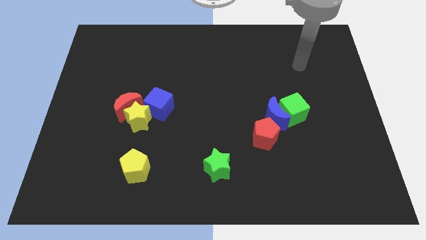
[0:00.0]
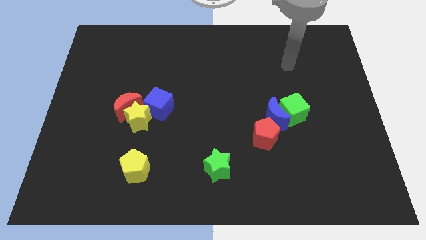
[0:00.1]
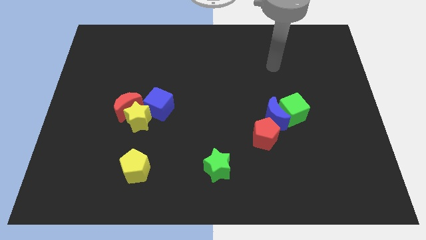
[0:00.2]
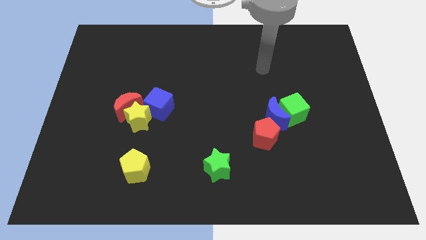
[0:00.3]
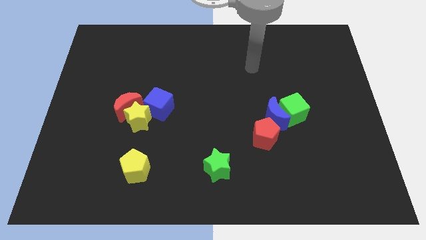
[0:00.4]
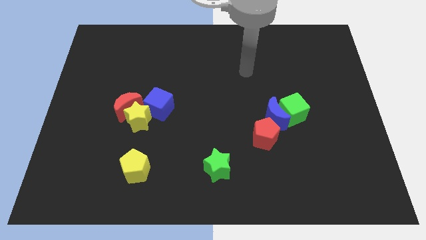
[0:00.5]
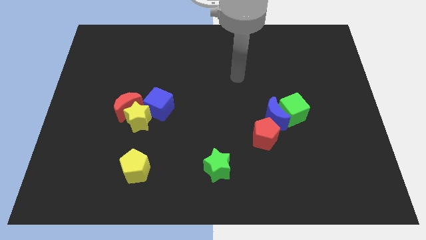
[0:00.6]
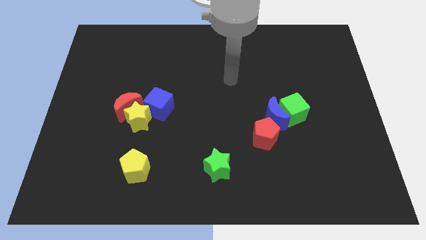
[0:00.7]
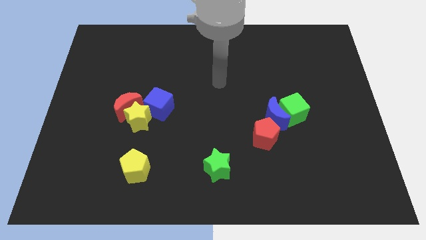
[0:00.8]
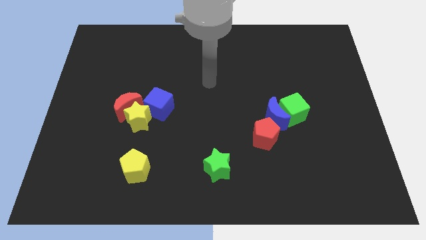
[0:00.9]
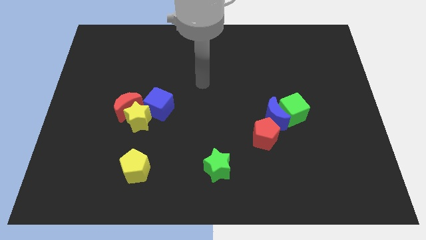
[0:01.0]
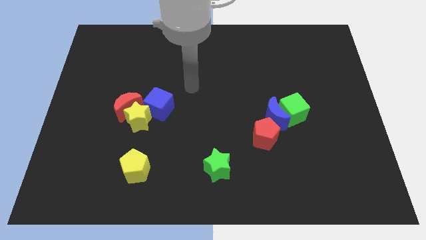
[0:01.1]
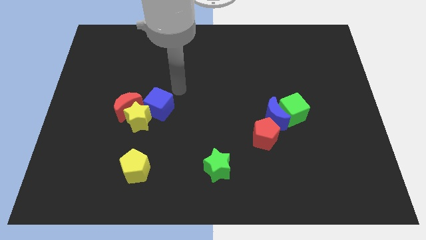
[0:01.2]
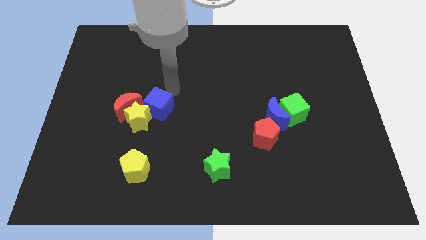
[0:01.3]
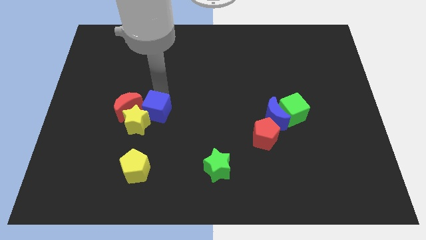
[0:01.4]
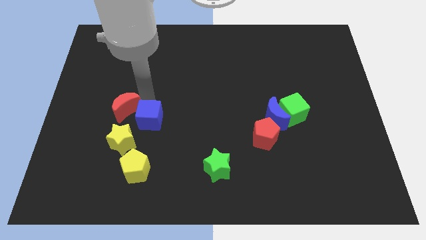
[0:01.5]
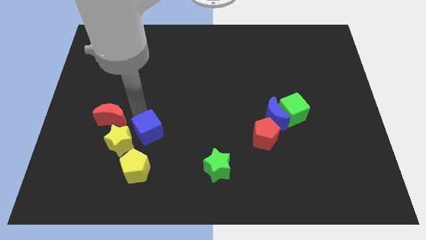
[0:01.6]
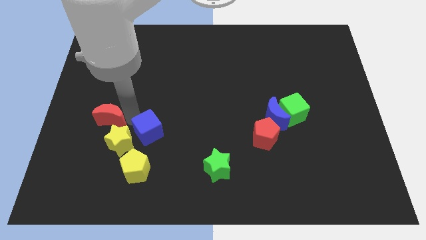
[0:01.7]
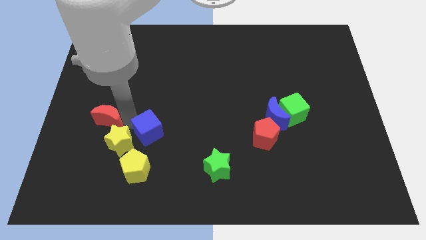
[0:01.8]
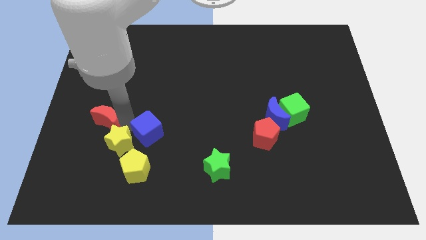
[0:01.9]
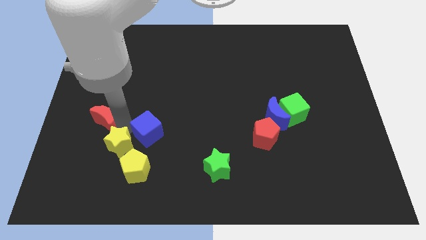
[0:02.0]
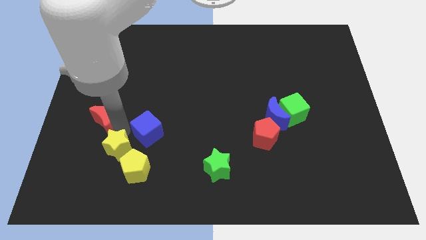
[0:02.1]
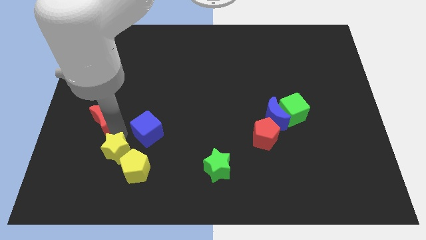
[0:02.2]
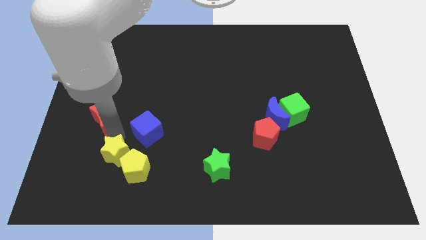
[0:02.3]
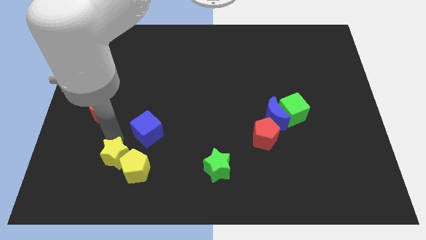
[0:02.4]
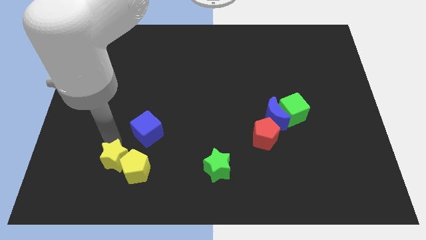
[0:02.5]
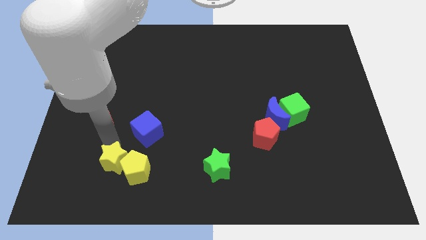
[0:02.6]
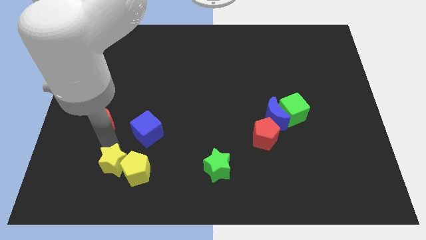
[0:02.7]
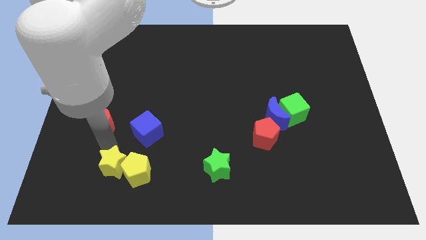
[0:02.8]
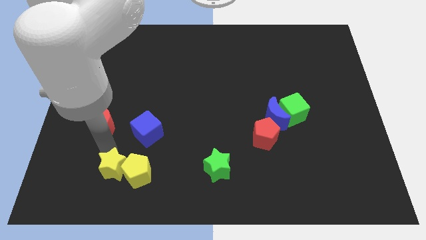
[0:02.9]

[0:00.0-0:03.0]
pull the yellow star apart from the red moon and blue cube

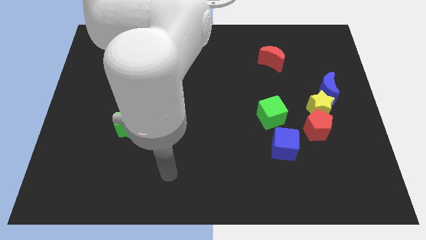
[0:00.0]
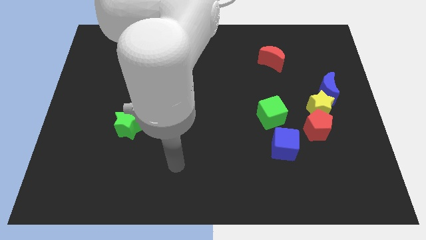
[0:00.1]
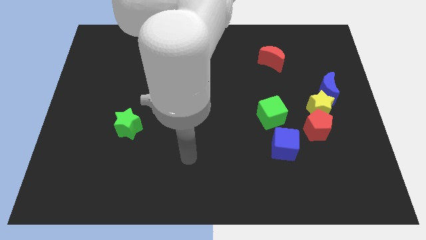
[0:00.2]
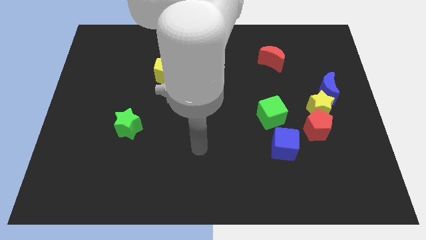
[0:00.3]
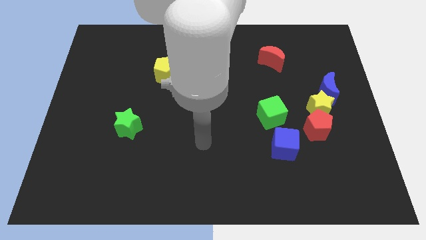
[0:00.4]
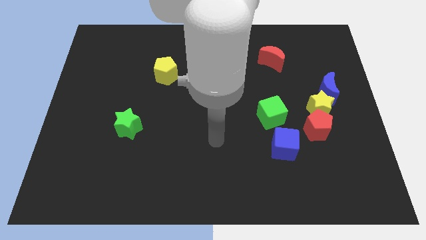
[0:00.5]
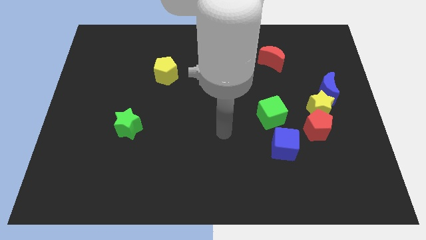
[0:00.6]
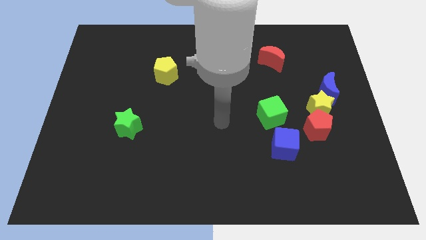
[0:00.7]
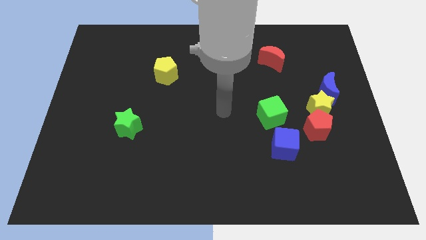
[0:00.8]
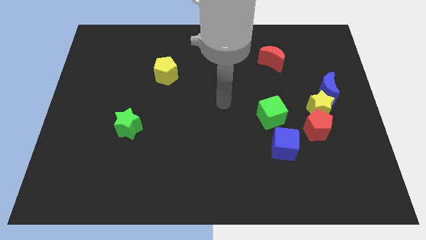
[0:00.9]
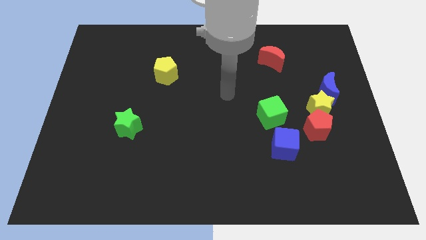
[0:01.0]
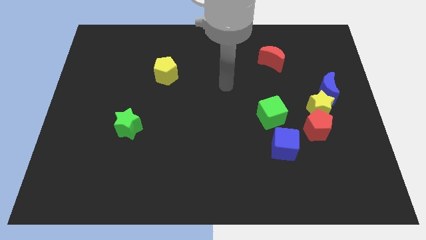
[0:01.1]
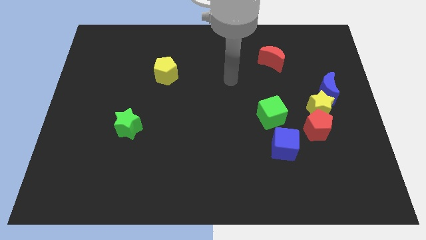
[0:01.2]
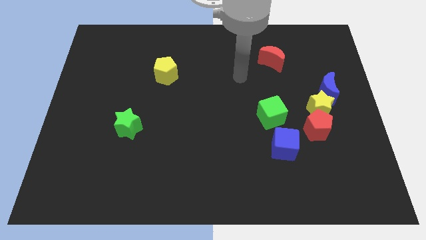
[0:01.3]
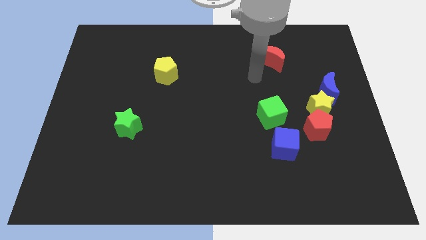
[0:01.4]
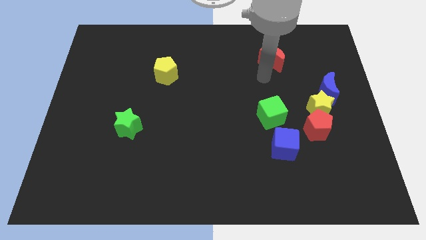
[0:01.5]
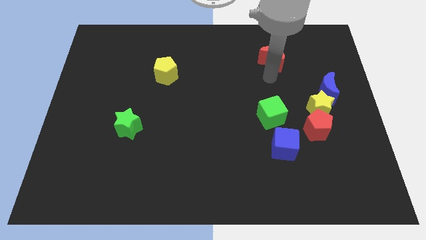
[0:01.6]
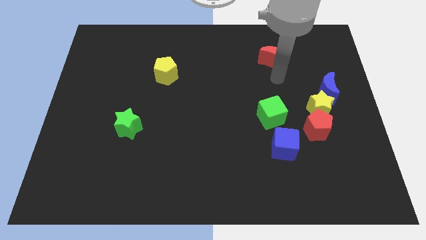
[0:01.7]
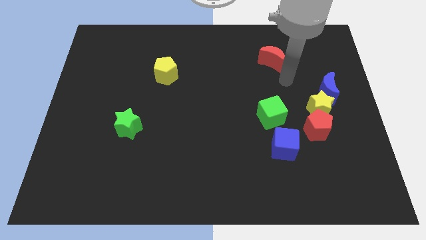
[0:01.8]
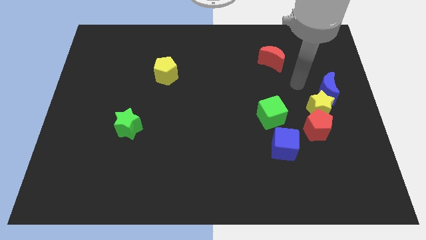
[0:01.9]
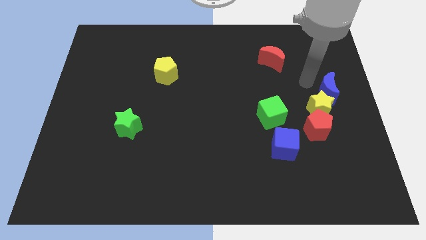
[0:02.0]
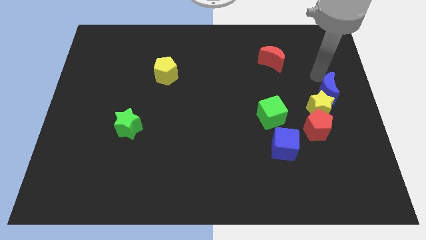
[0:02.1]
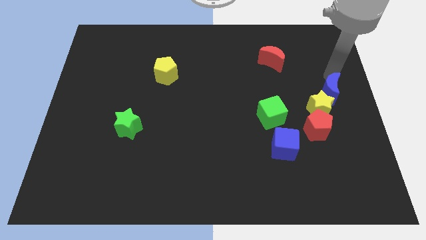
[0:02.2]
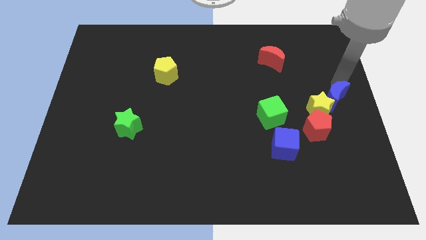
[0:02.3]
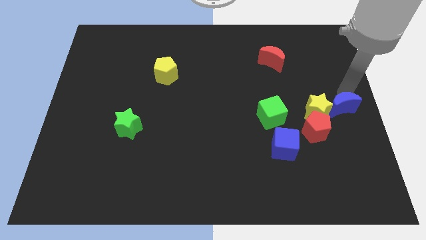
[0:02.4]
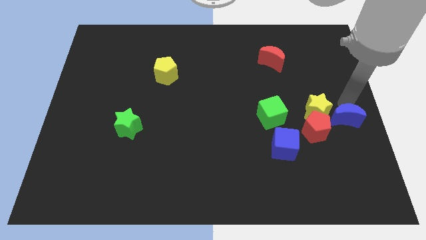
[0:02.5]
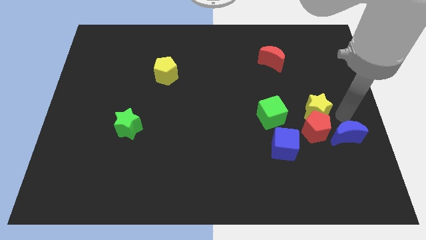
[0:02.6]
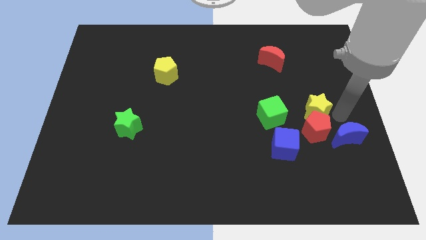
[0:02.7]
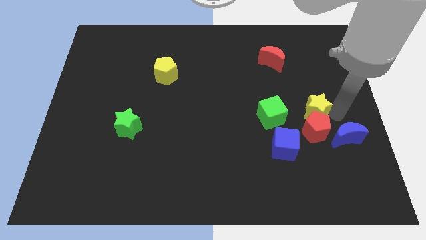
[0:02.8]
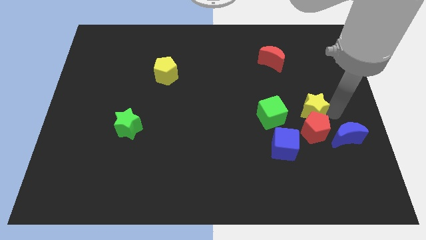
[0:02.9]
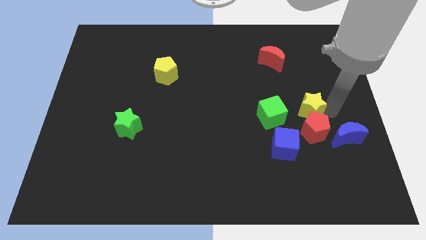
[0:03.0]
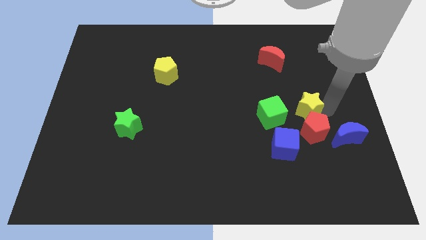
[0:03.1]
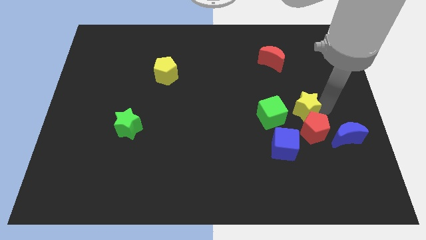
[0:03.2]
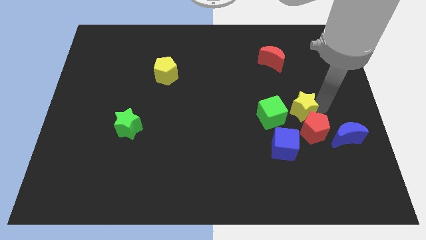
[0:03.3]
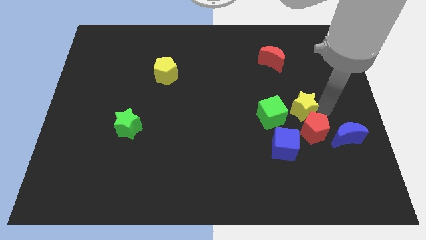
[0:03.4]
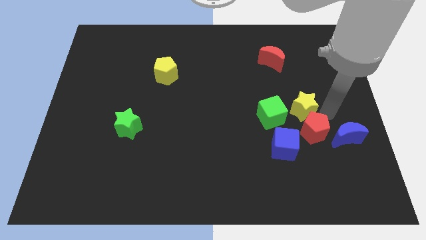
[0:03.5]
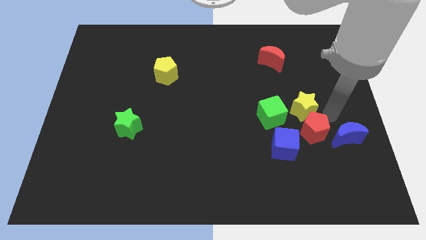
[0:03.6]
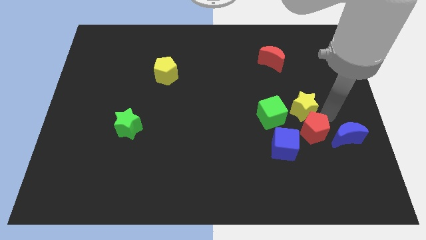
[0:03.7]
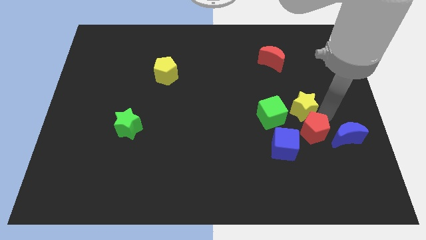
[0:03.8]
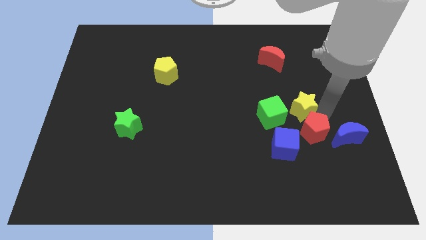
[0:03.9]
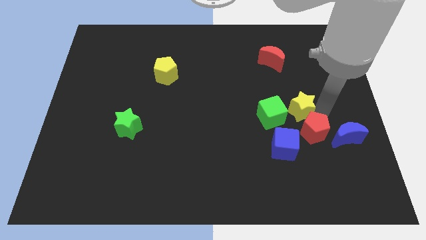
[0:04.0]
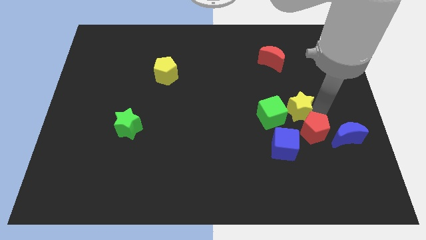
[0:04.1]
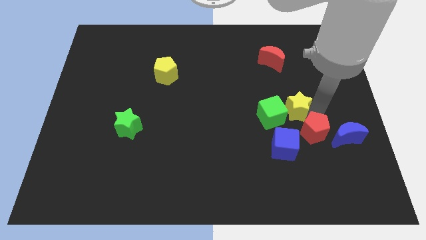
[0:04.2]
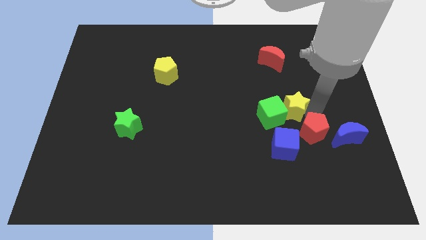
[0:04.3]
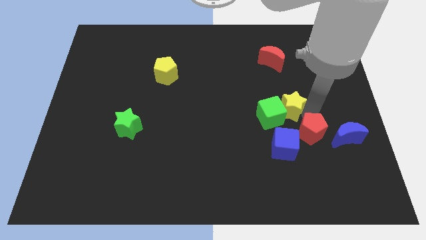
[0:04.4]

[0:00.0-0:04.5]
separate the yellow star from the red pentagon and blue moon

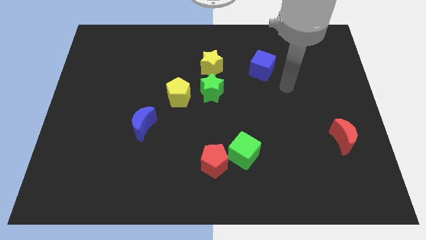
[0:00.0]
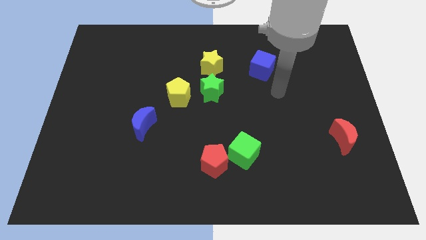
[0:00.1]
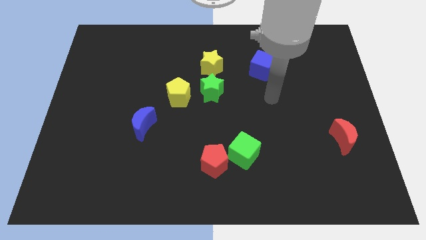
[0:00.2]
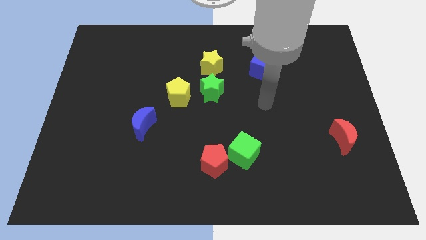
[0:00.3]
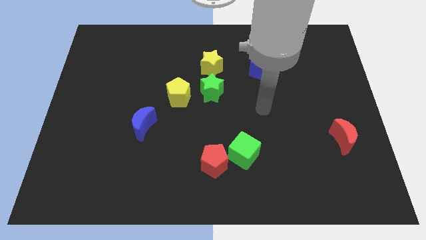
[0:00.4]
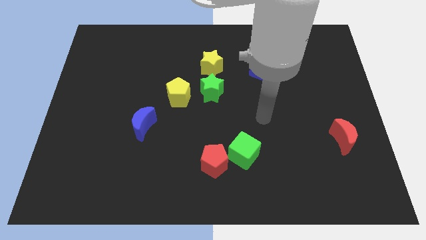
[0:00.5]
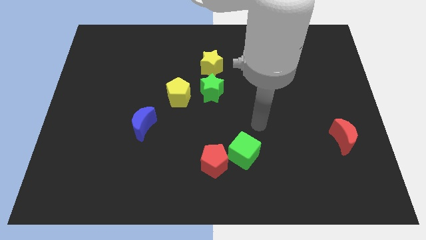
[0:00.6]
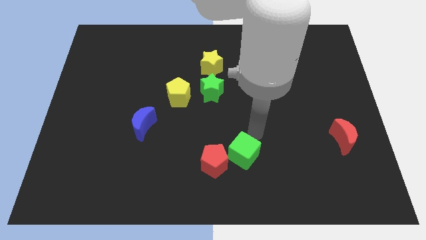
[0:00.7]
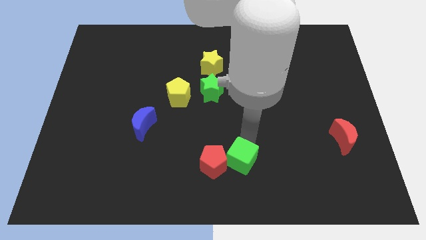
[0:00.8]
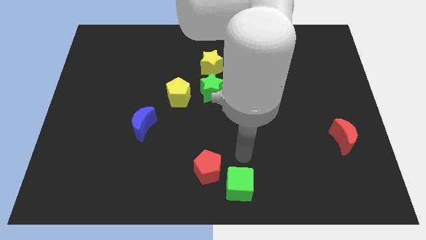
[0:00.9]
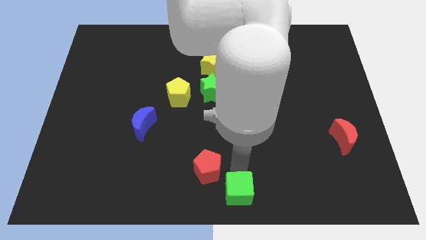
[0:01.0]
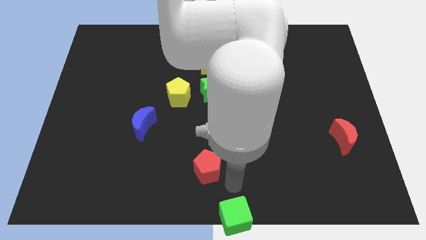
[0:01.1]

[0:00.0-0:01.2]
separate the red pentagon from the green cube

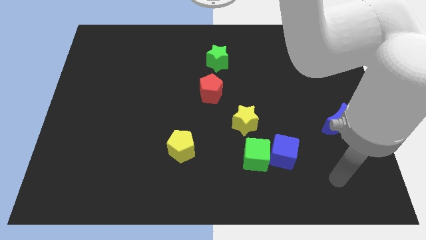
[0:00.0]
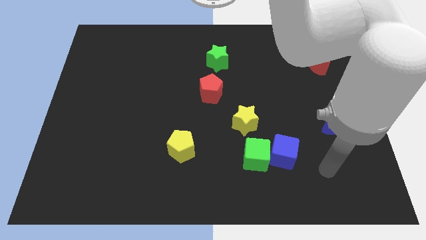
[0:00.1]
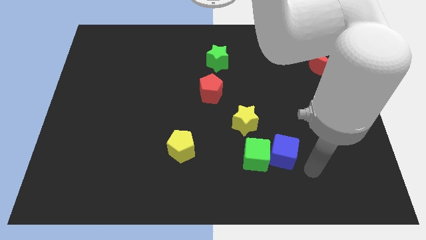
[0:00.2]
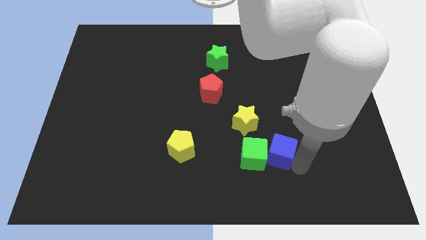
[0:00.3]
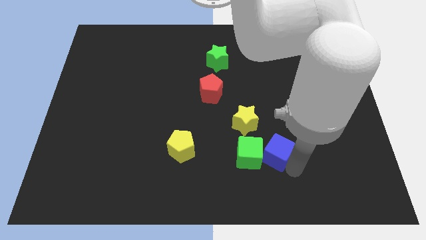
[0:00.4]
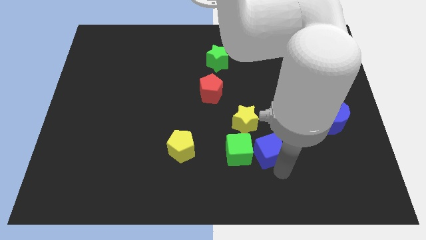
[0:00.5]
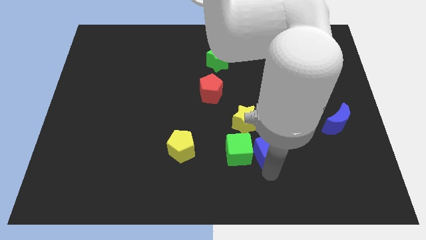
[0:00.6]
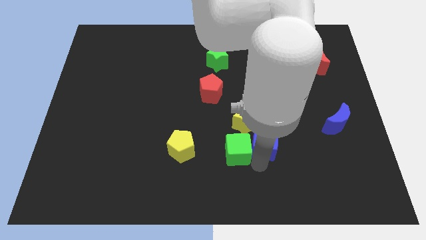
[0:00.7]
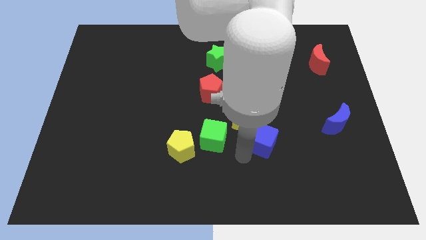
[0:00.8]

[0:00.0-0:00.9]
pull the blue cube apart from the green cube
